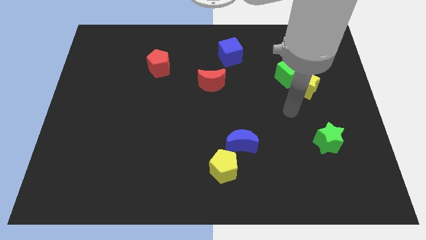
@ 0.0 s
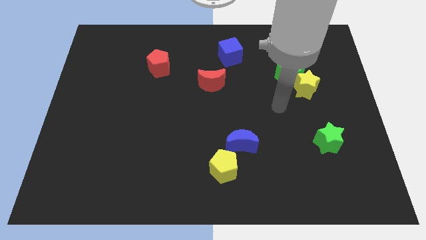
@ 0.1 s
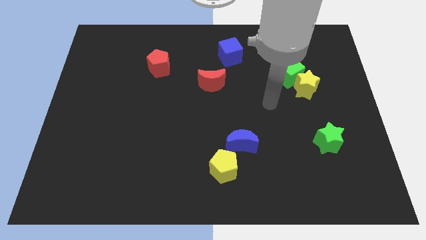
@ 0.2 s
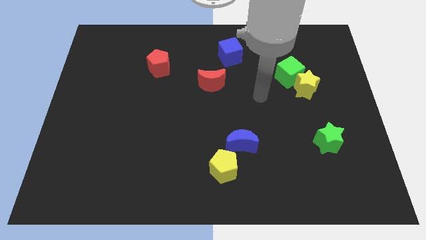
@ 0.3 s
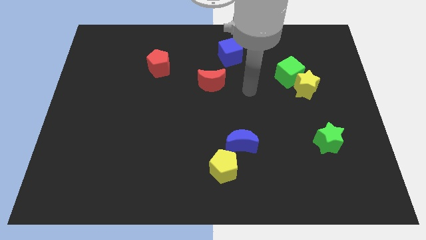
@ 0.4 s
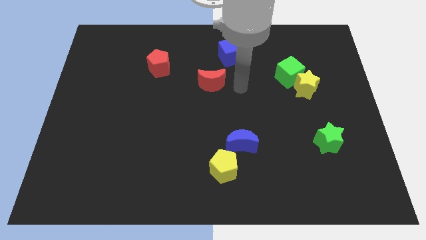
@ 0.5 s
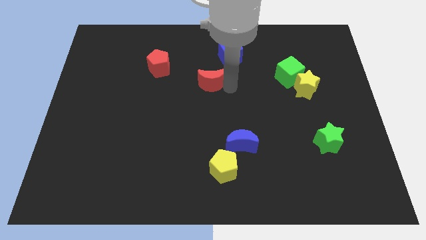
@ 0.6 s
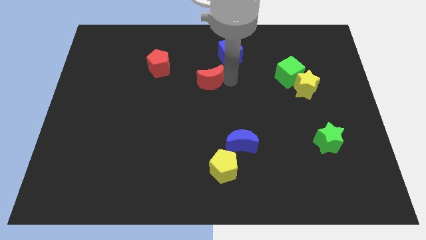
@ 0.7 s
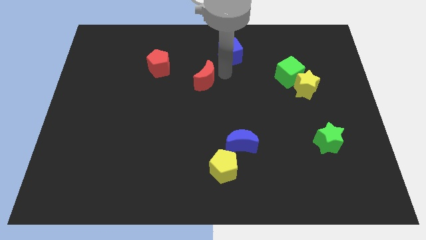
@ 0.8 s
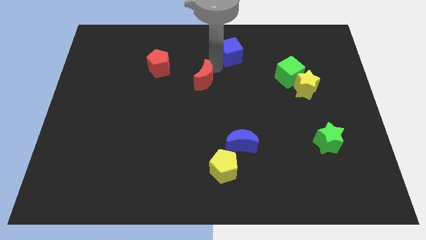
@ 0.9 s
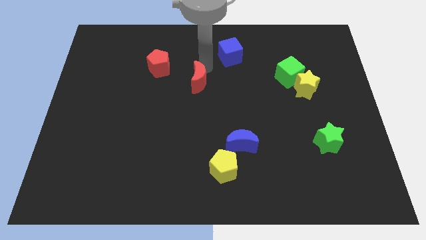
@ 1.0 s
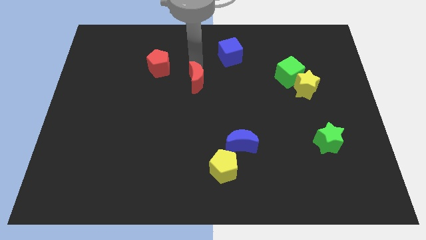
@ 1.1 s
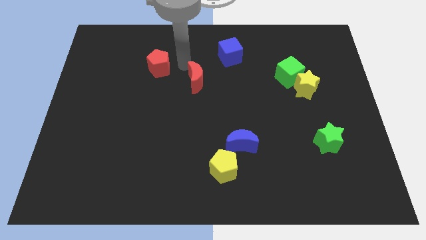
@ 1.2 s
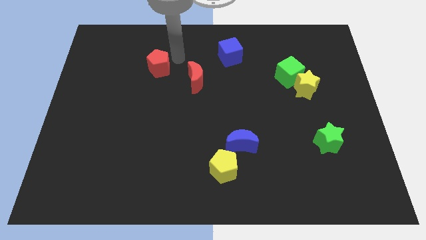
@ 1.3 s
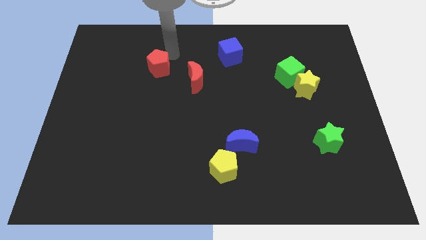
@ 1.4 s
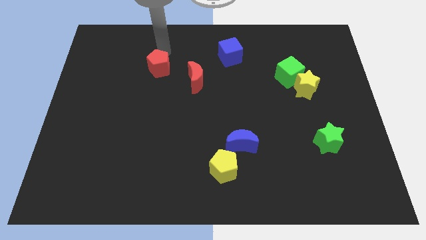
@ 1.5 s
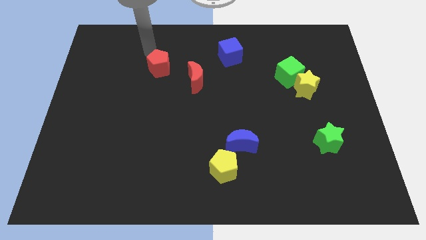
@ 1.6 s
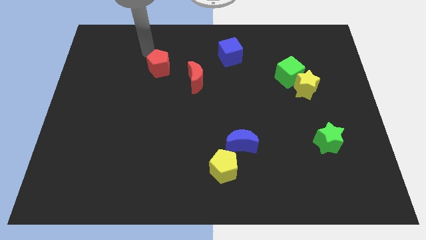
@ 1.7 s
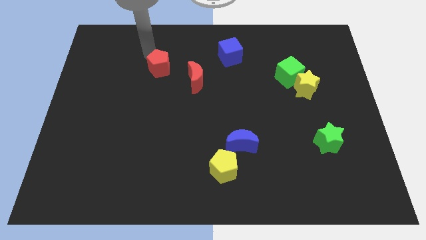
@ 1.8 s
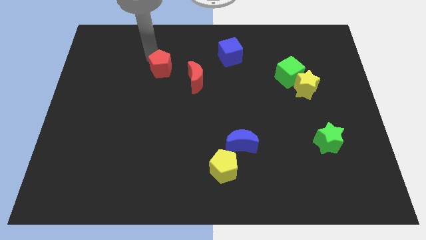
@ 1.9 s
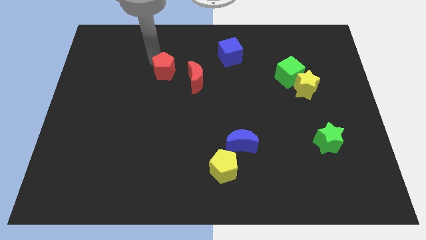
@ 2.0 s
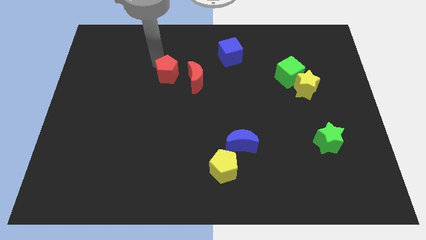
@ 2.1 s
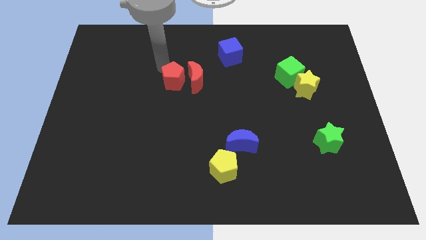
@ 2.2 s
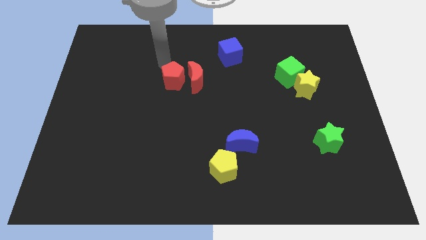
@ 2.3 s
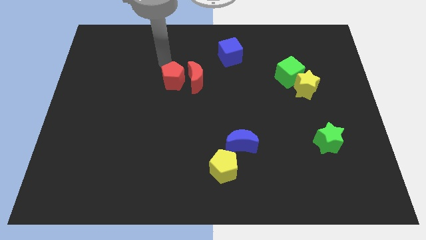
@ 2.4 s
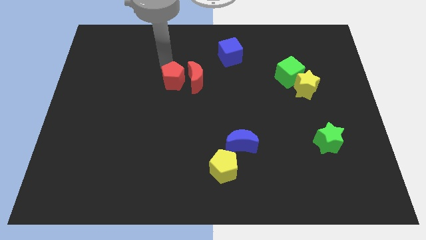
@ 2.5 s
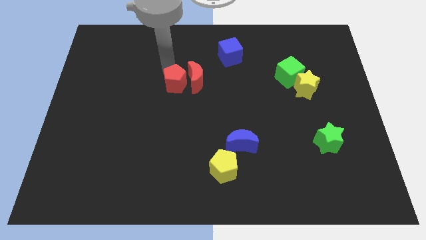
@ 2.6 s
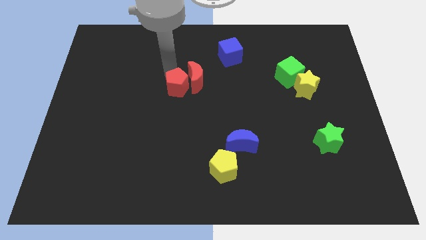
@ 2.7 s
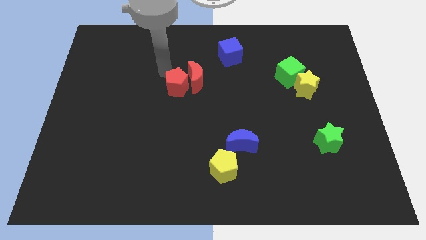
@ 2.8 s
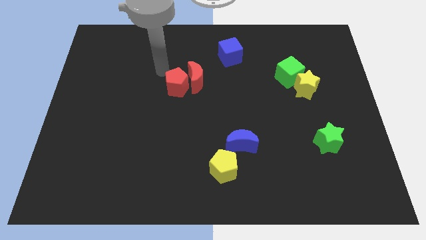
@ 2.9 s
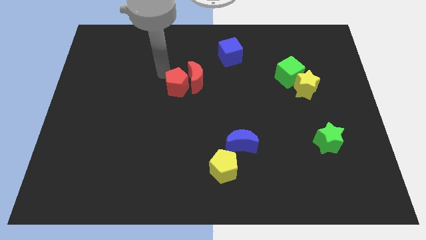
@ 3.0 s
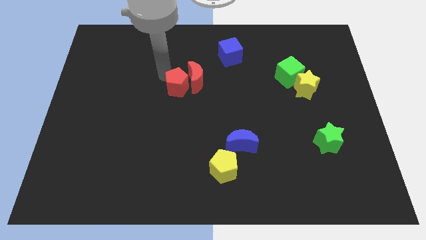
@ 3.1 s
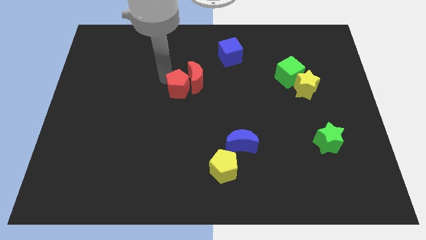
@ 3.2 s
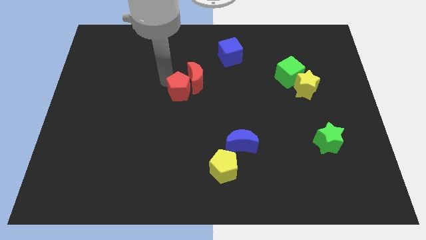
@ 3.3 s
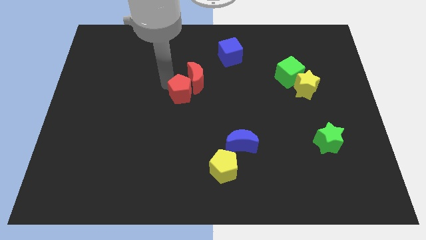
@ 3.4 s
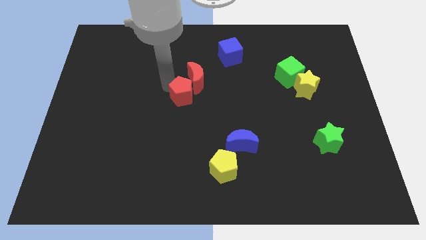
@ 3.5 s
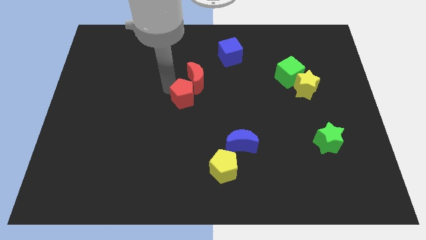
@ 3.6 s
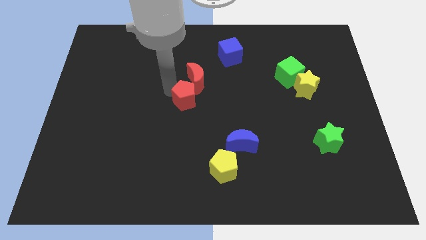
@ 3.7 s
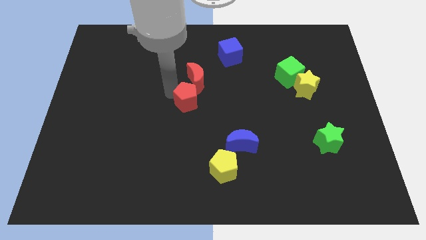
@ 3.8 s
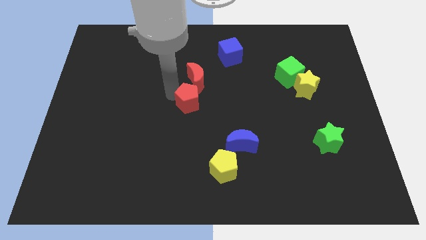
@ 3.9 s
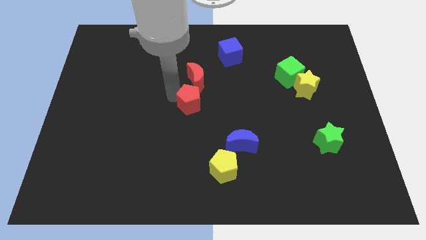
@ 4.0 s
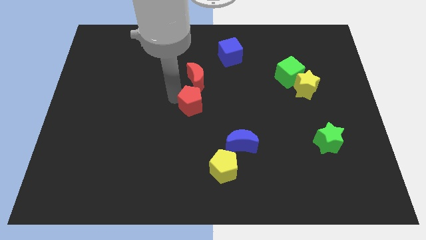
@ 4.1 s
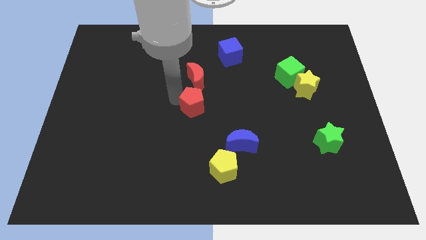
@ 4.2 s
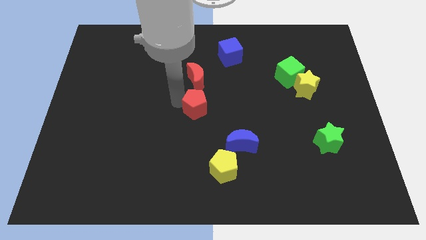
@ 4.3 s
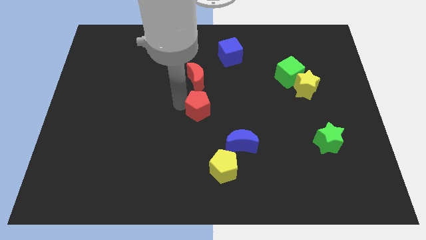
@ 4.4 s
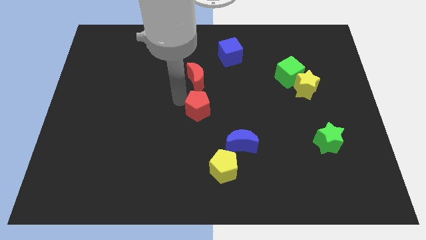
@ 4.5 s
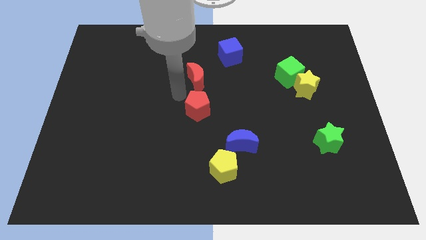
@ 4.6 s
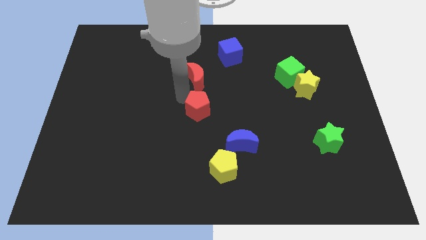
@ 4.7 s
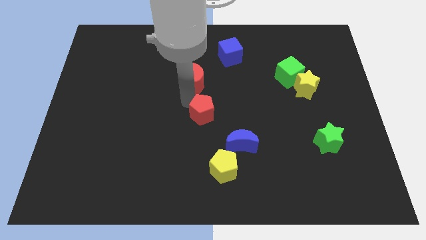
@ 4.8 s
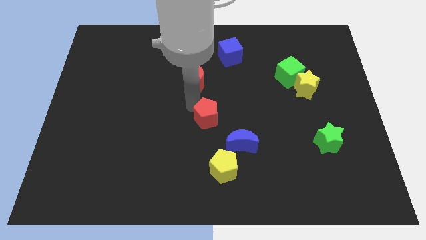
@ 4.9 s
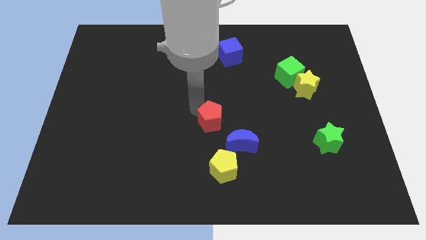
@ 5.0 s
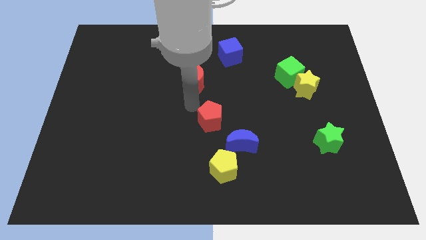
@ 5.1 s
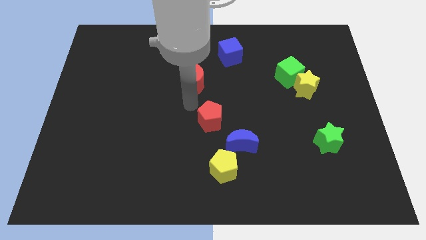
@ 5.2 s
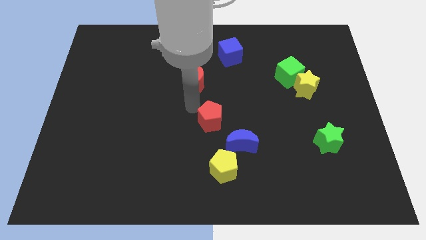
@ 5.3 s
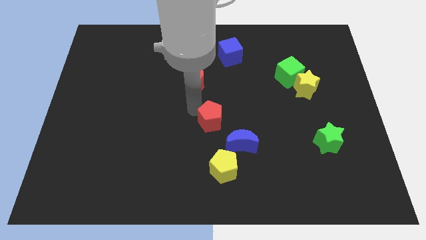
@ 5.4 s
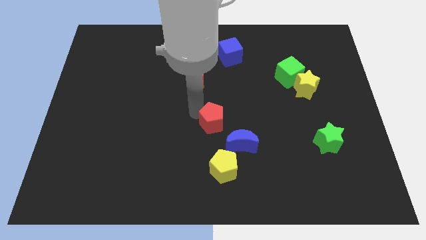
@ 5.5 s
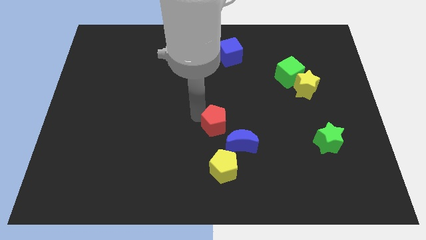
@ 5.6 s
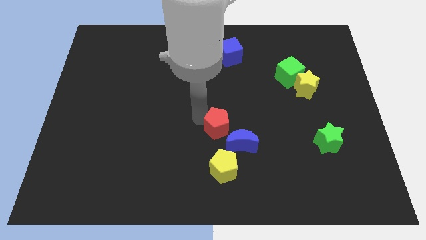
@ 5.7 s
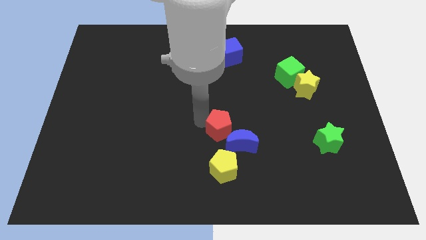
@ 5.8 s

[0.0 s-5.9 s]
put the red pentagon to the blue moon
